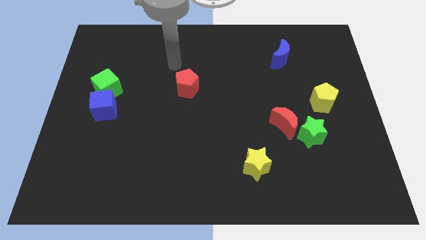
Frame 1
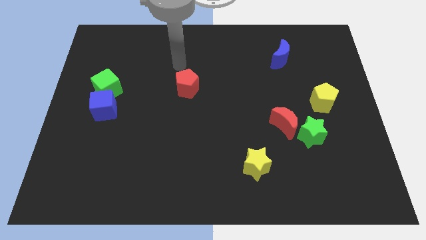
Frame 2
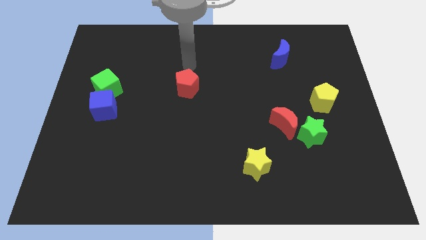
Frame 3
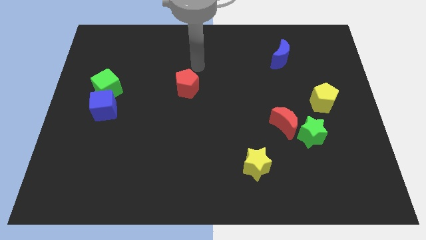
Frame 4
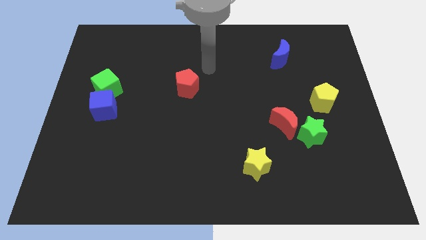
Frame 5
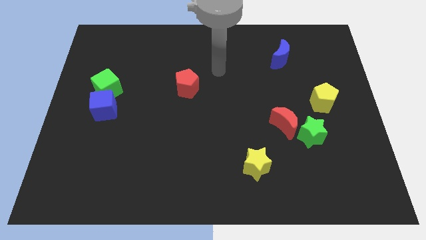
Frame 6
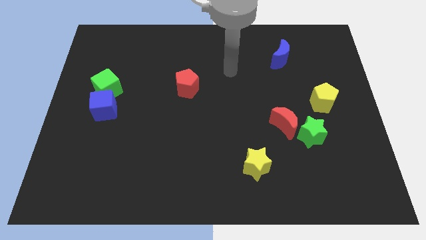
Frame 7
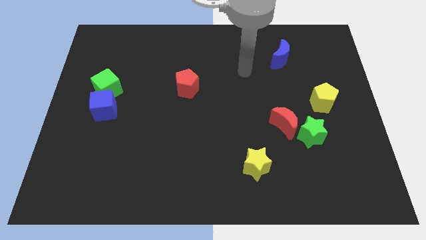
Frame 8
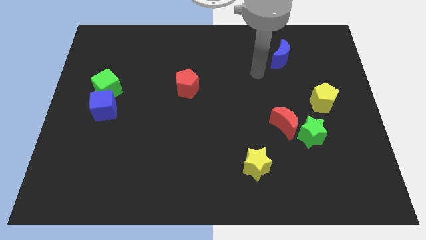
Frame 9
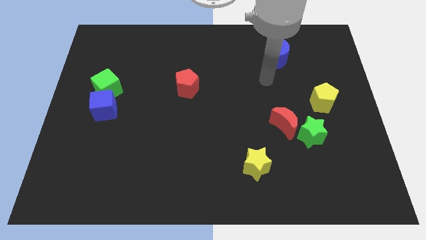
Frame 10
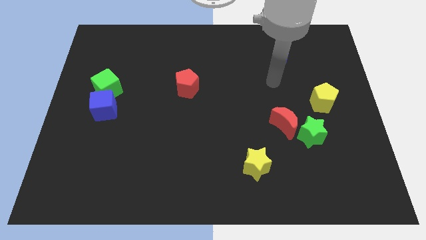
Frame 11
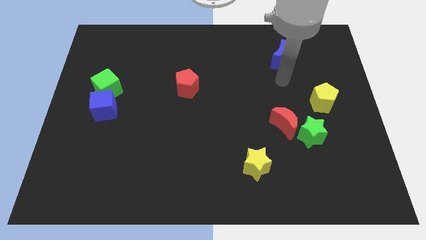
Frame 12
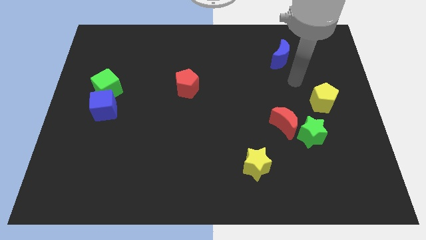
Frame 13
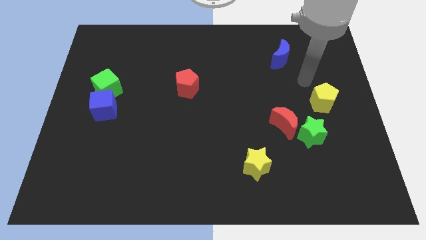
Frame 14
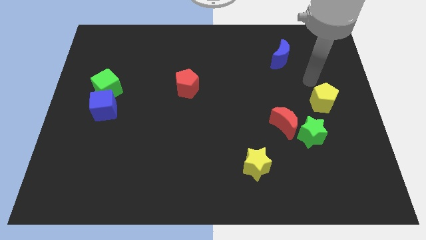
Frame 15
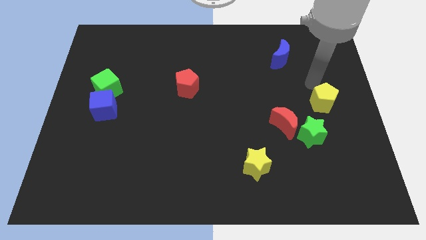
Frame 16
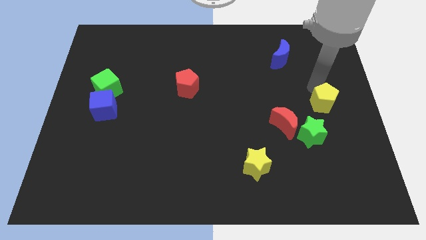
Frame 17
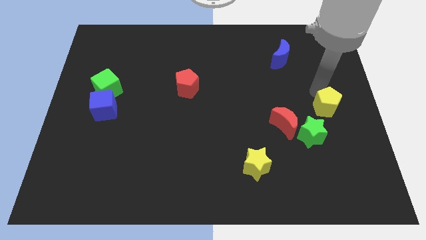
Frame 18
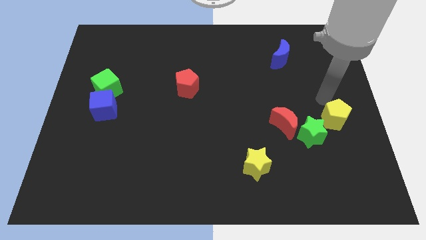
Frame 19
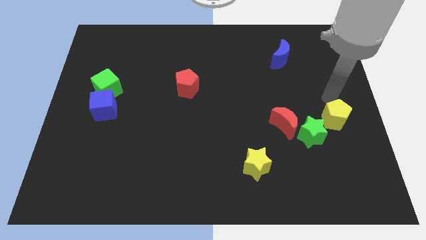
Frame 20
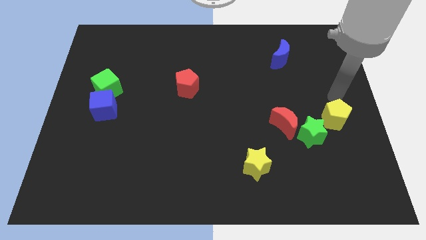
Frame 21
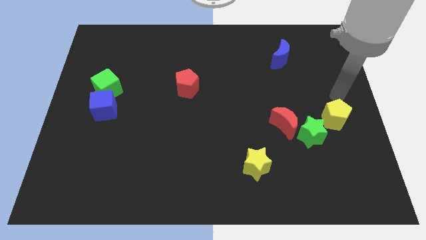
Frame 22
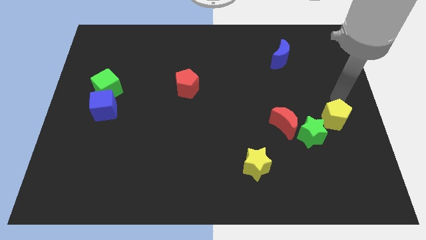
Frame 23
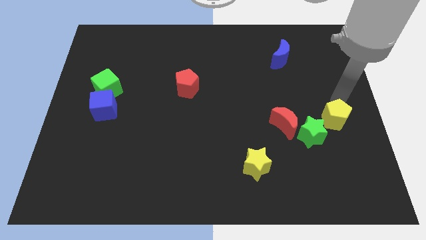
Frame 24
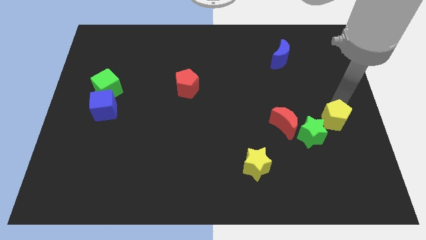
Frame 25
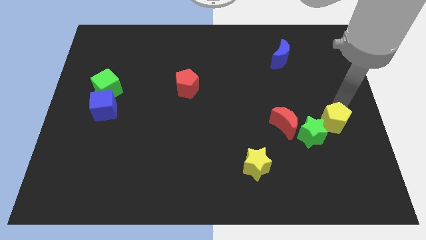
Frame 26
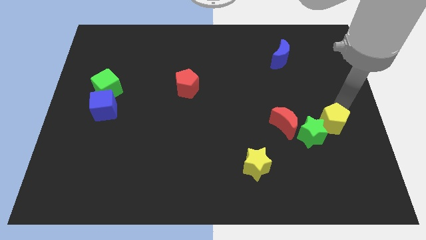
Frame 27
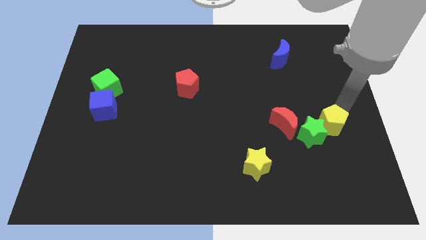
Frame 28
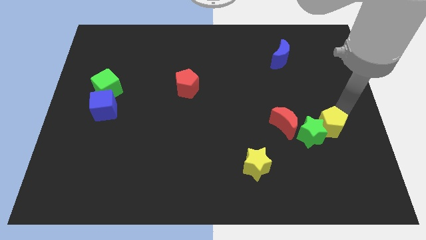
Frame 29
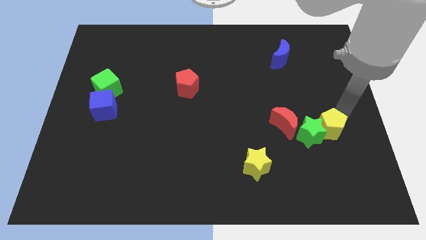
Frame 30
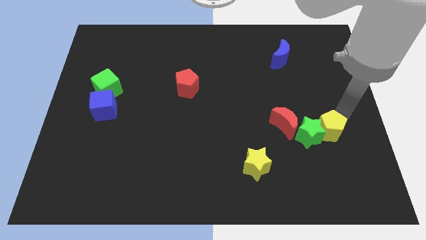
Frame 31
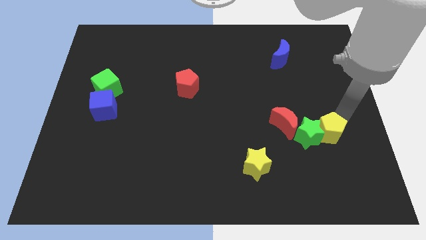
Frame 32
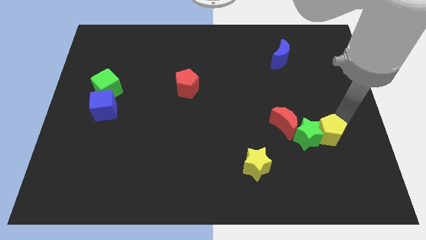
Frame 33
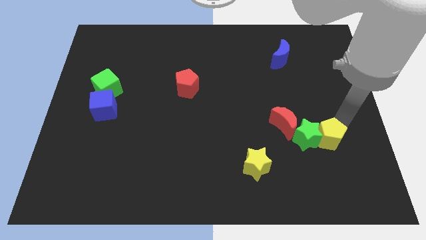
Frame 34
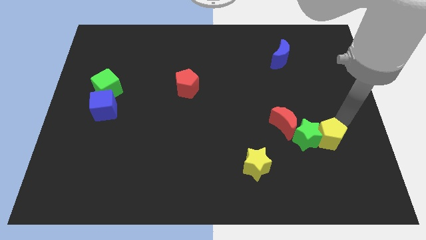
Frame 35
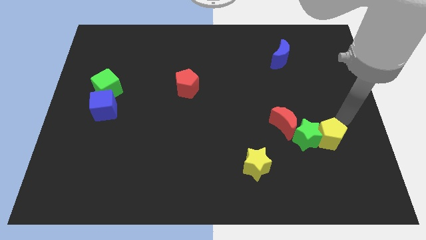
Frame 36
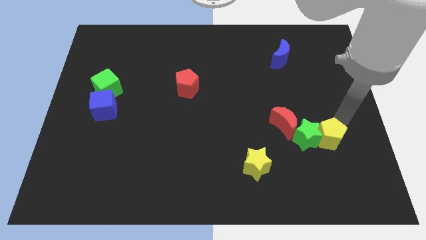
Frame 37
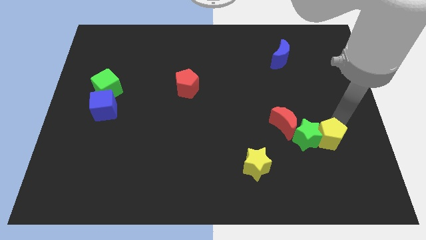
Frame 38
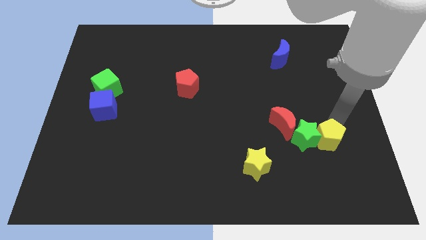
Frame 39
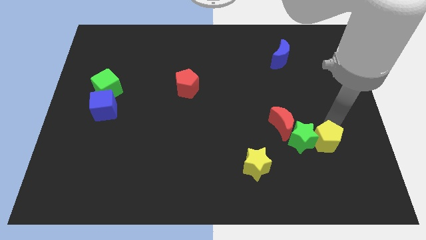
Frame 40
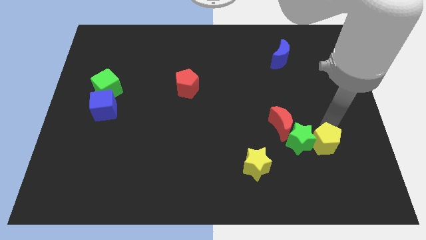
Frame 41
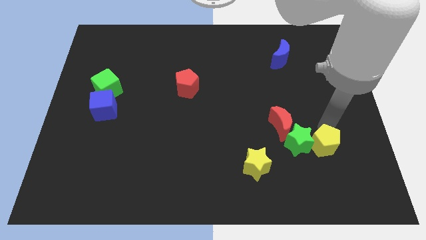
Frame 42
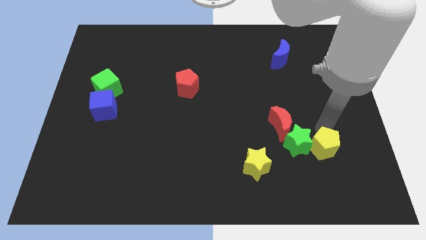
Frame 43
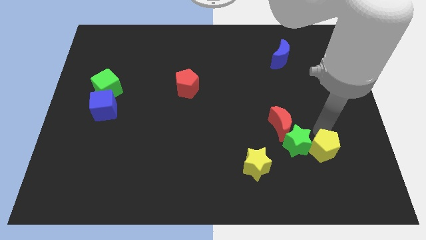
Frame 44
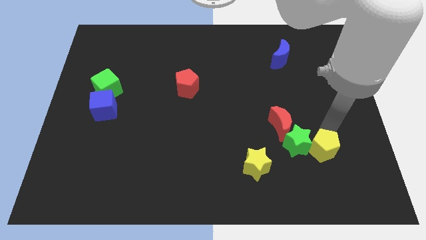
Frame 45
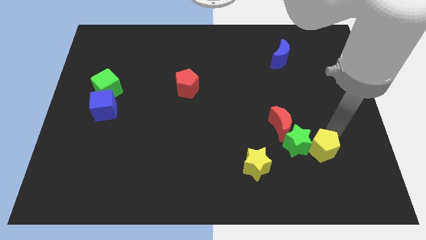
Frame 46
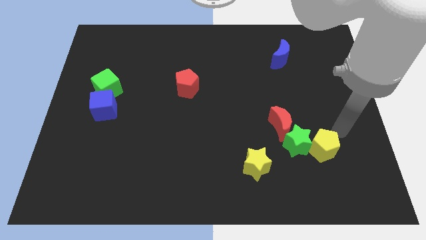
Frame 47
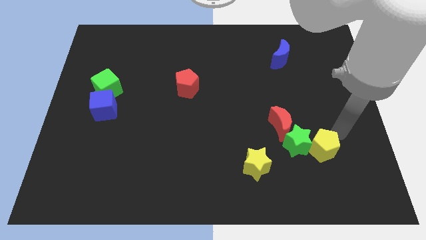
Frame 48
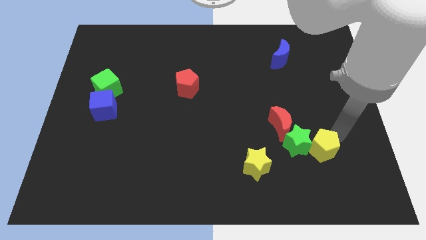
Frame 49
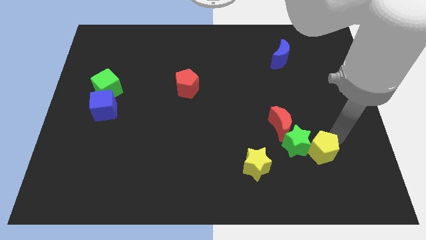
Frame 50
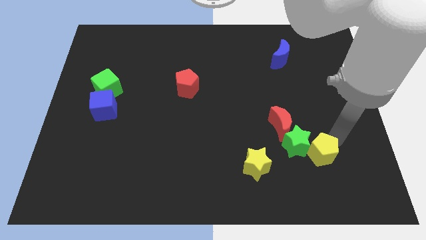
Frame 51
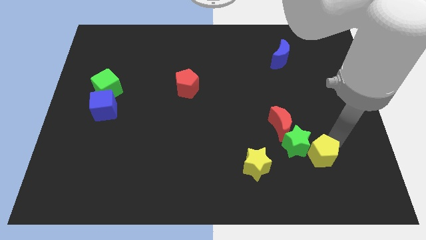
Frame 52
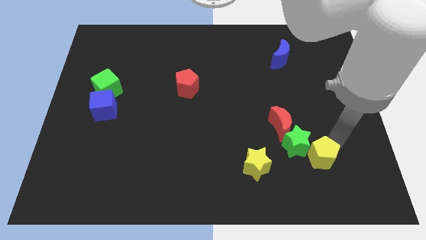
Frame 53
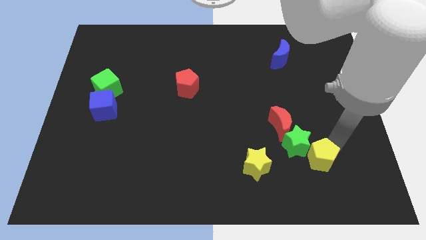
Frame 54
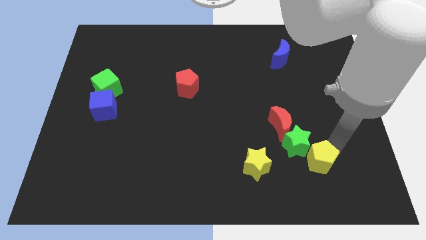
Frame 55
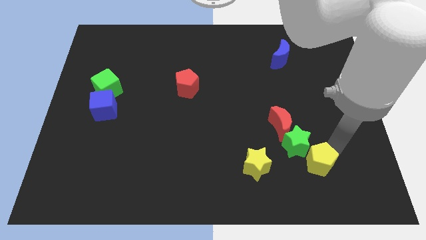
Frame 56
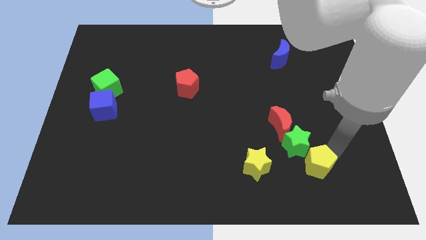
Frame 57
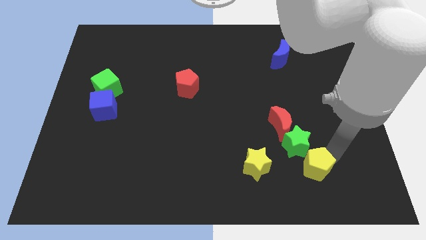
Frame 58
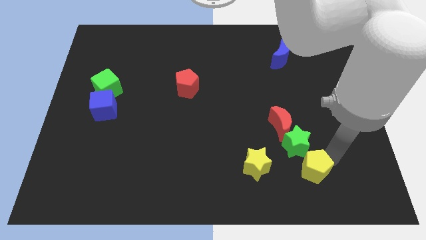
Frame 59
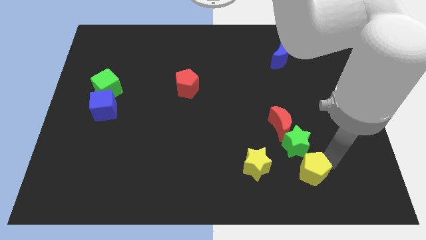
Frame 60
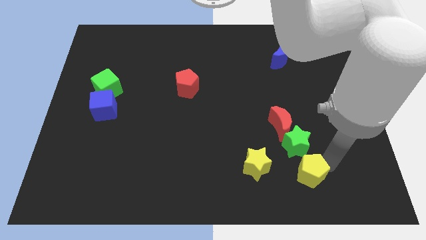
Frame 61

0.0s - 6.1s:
slide the yellow pentagon to the bottom side of the red moon

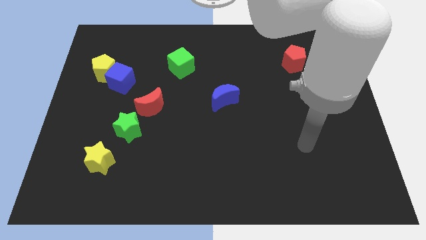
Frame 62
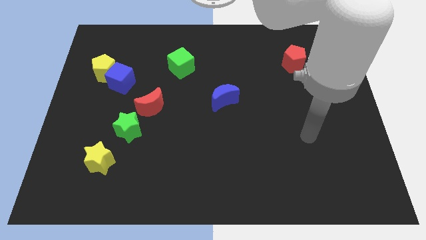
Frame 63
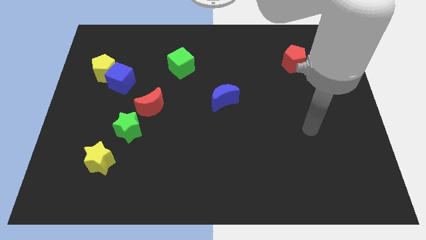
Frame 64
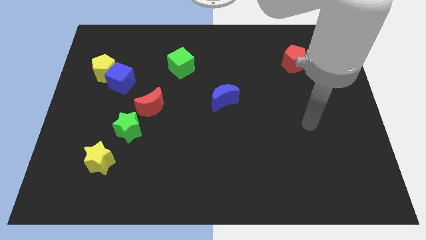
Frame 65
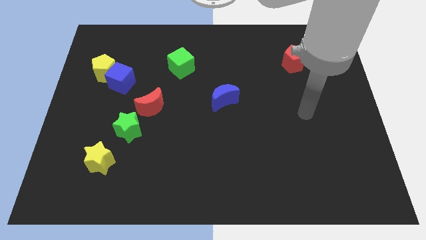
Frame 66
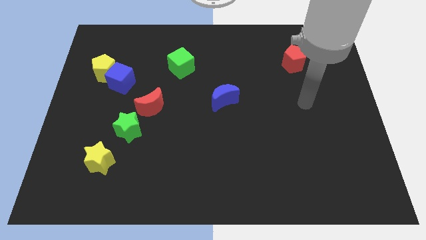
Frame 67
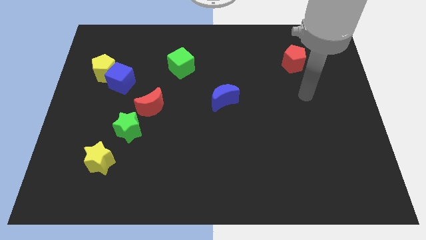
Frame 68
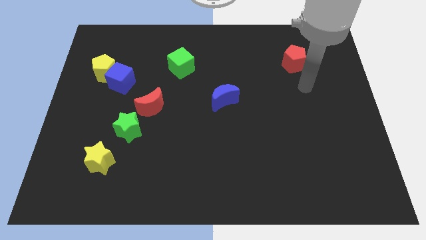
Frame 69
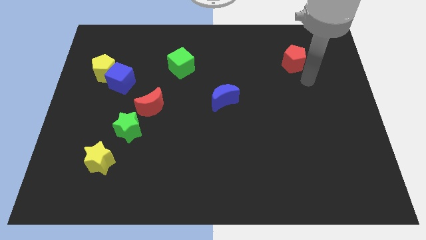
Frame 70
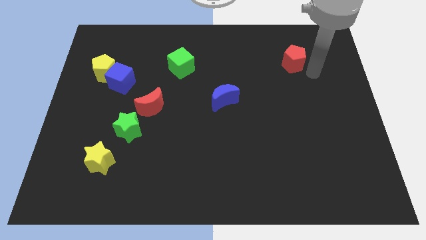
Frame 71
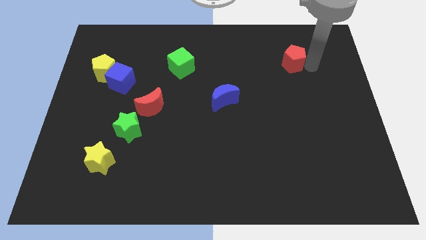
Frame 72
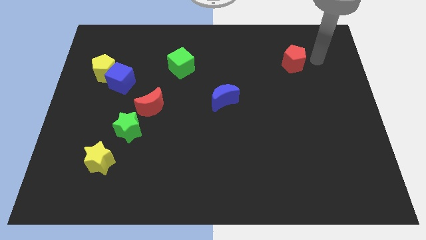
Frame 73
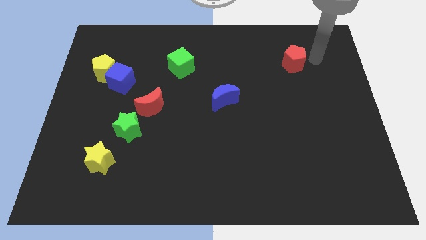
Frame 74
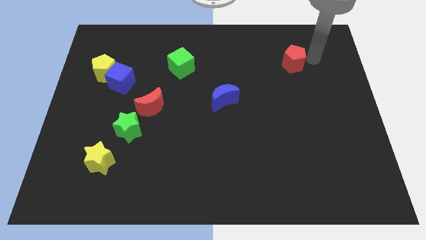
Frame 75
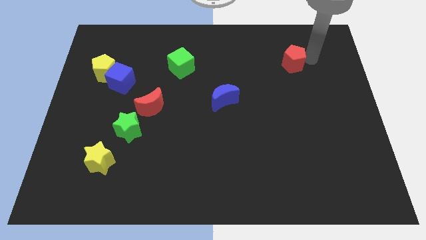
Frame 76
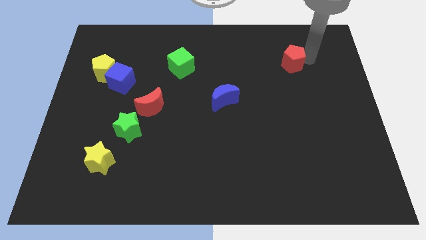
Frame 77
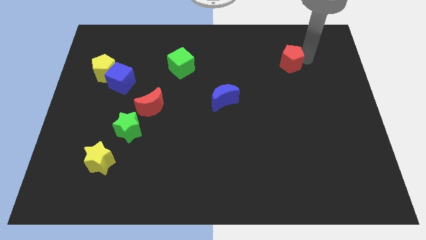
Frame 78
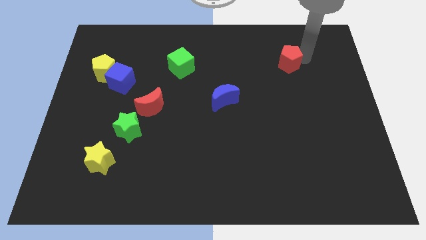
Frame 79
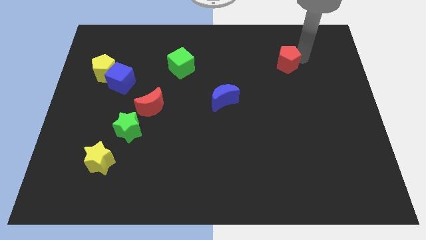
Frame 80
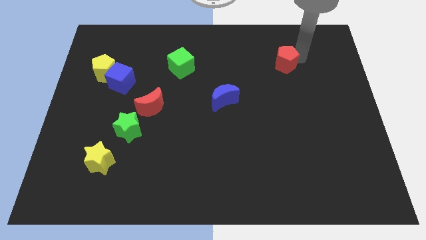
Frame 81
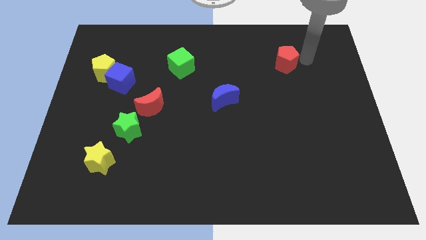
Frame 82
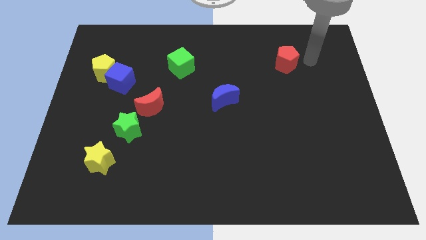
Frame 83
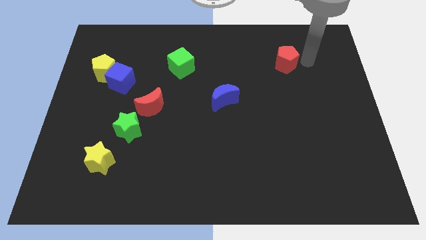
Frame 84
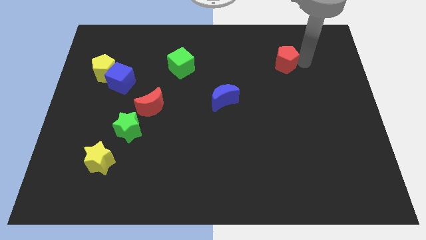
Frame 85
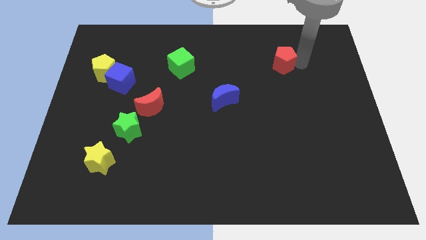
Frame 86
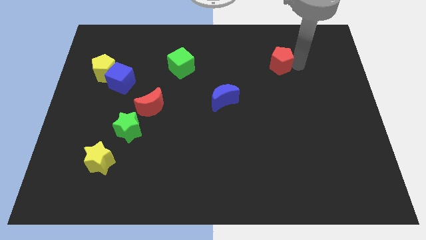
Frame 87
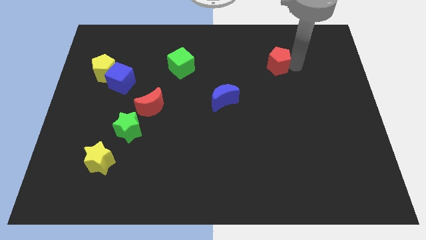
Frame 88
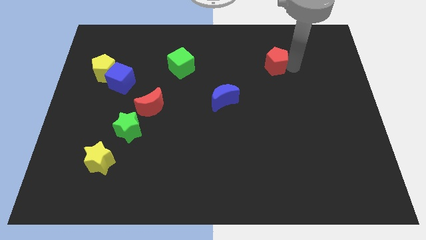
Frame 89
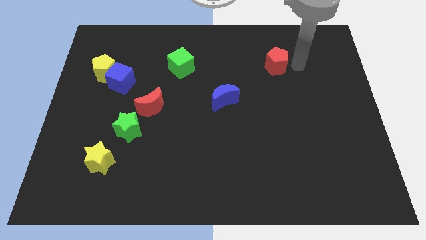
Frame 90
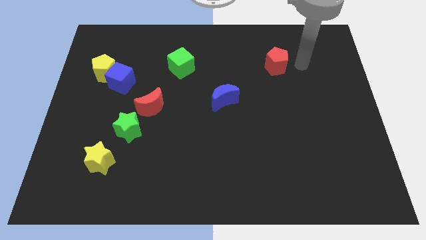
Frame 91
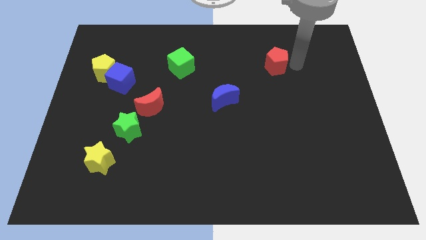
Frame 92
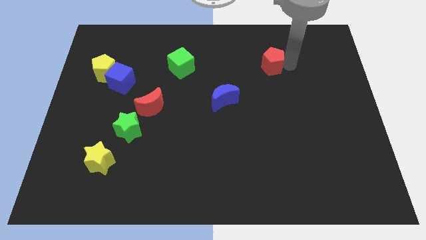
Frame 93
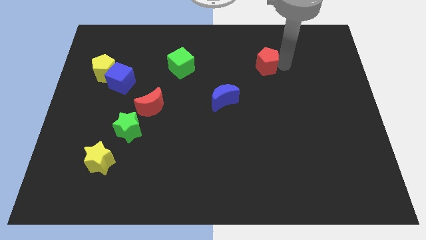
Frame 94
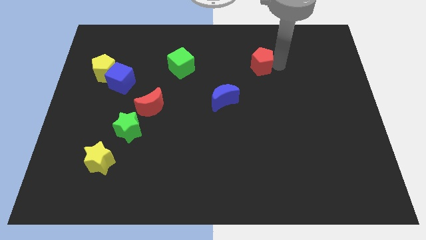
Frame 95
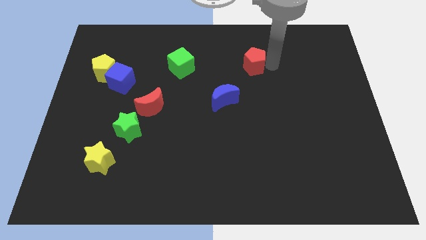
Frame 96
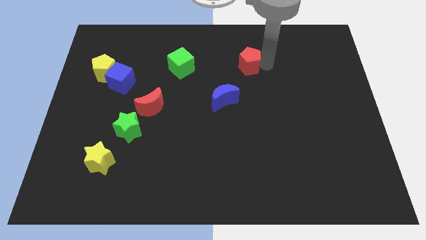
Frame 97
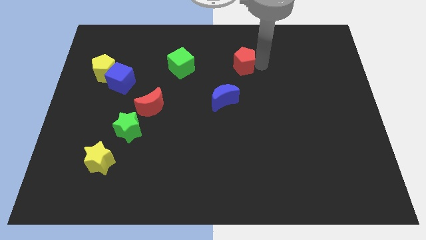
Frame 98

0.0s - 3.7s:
slide the red pentagon just right of the green cube
